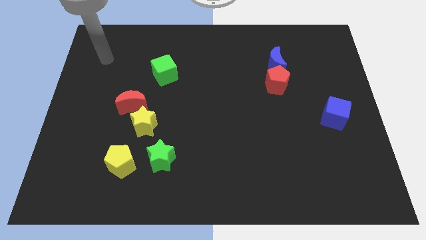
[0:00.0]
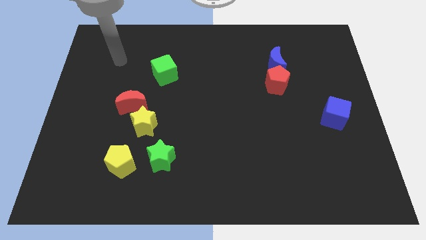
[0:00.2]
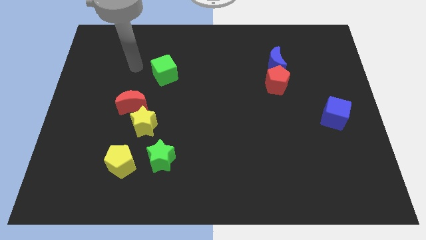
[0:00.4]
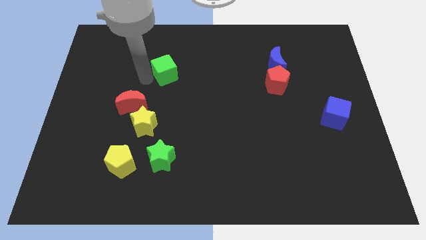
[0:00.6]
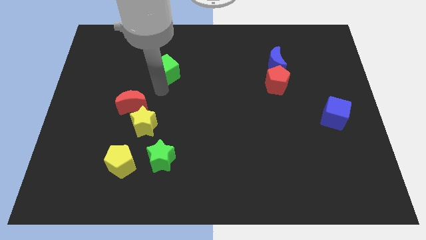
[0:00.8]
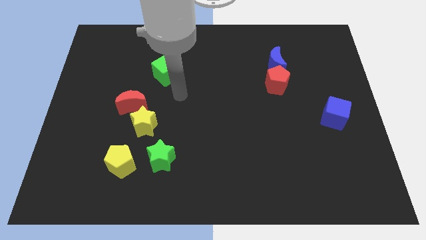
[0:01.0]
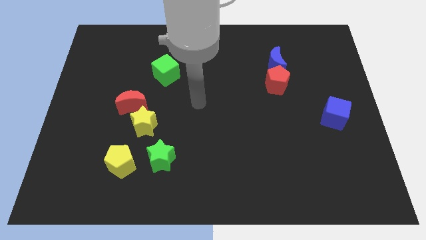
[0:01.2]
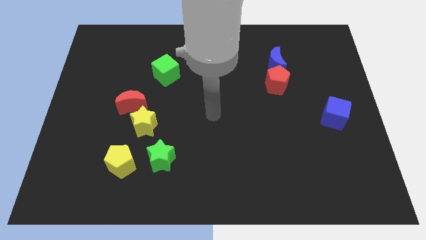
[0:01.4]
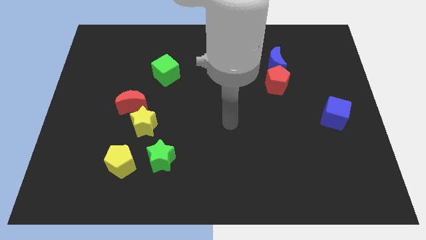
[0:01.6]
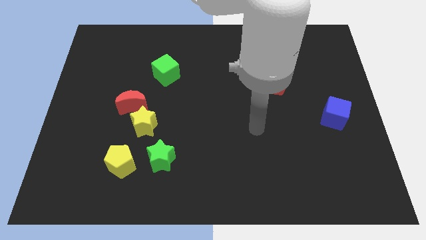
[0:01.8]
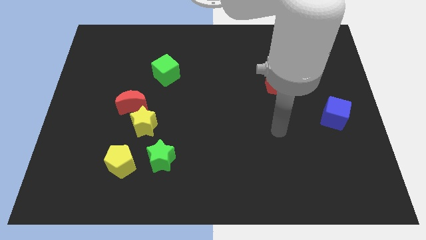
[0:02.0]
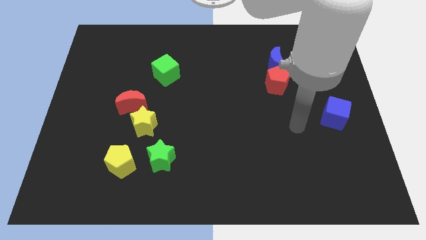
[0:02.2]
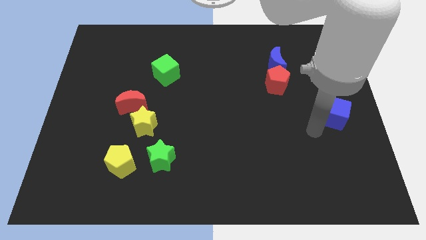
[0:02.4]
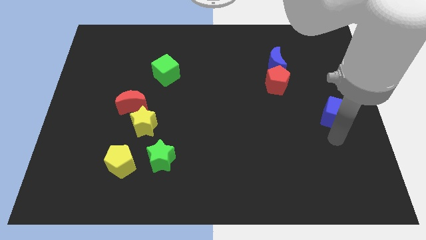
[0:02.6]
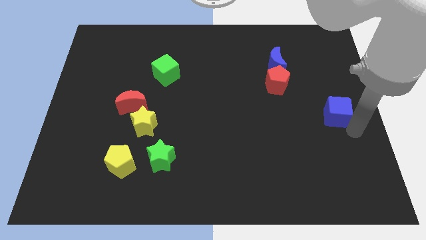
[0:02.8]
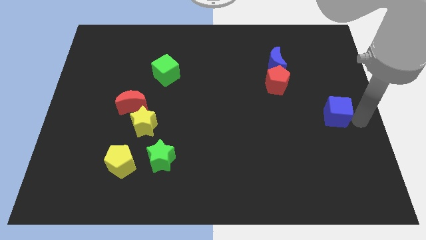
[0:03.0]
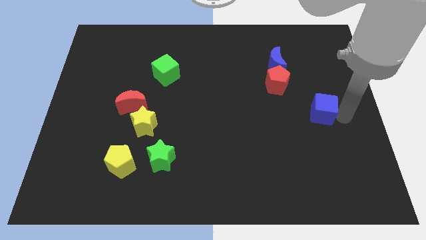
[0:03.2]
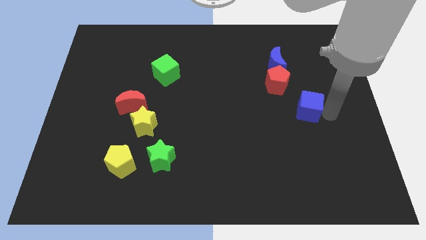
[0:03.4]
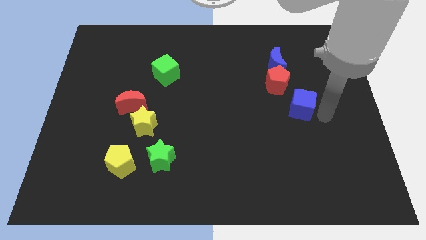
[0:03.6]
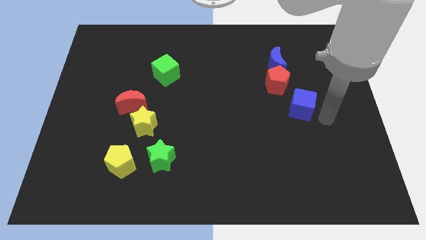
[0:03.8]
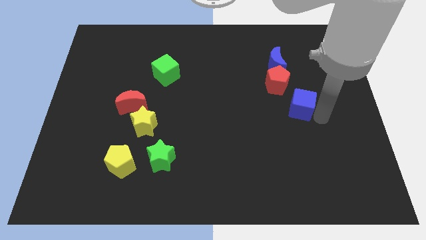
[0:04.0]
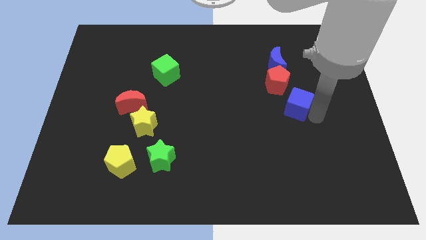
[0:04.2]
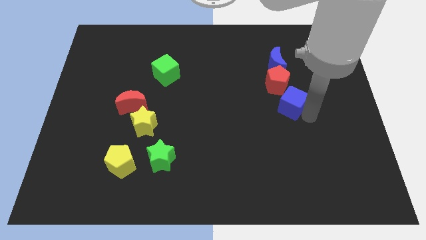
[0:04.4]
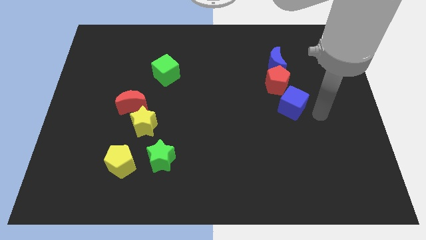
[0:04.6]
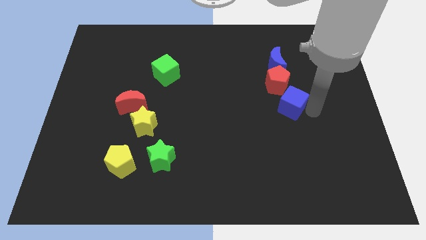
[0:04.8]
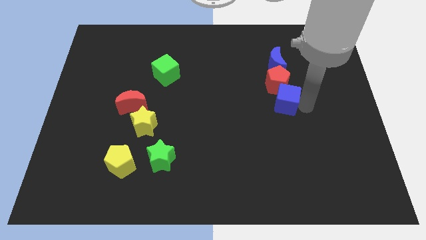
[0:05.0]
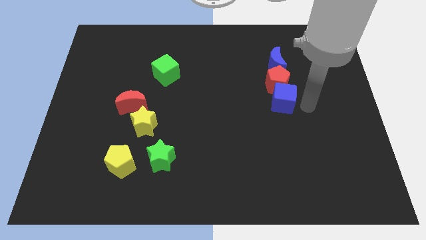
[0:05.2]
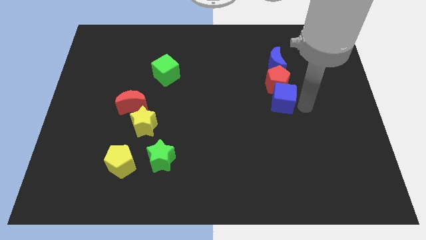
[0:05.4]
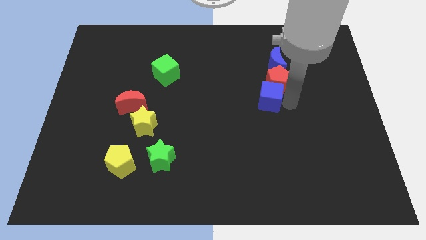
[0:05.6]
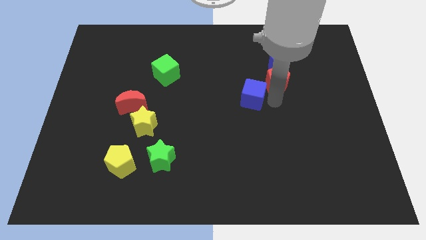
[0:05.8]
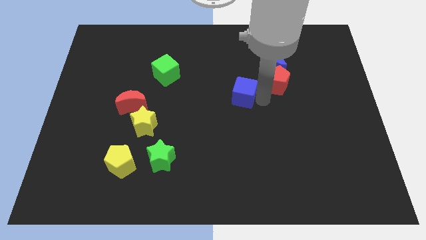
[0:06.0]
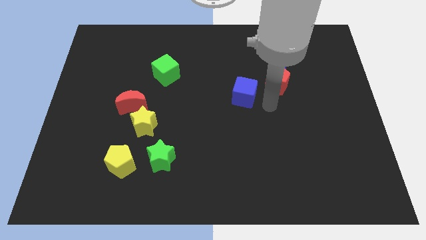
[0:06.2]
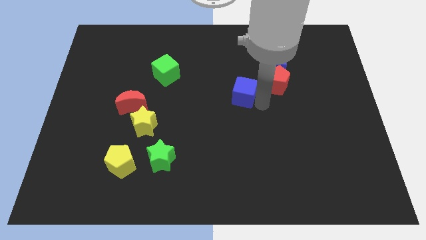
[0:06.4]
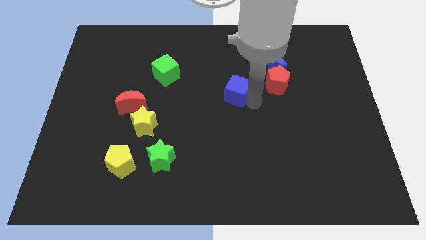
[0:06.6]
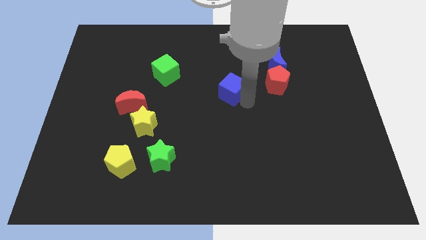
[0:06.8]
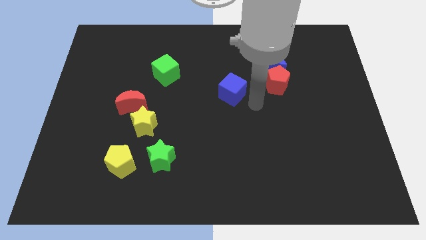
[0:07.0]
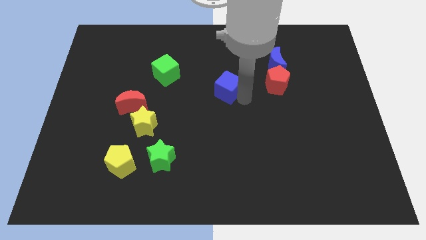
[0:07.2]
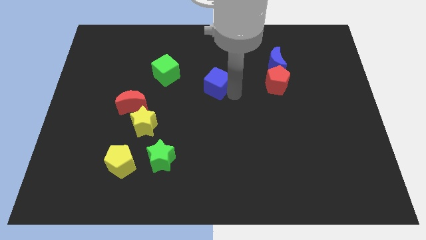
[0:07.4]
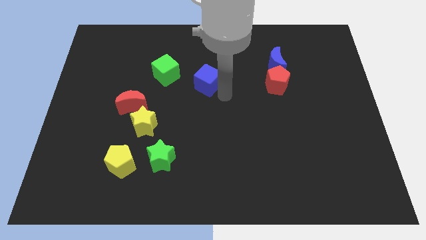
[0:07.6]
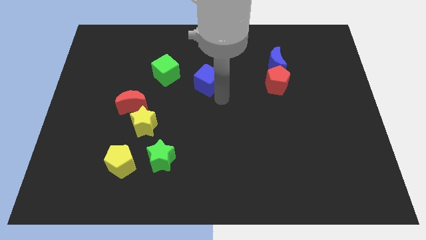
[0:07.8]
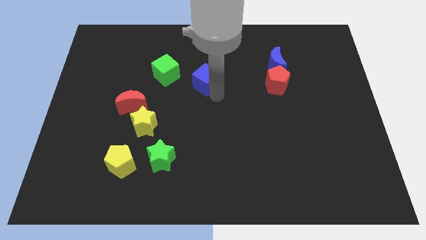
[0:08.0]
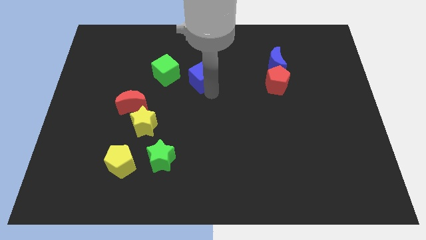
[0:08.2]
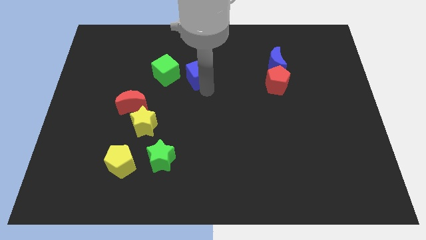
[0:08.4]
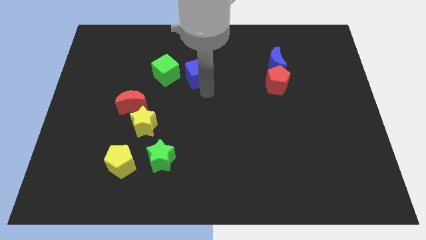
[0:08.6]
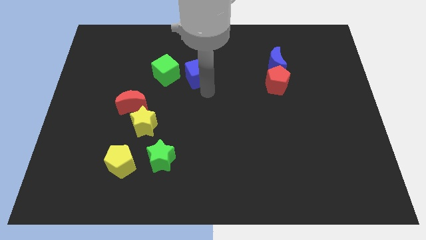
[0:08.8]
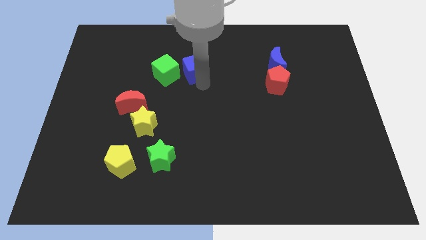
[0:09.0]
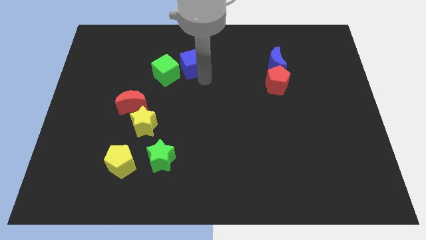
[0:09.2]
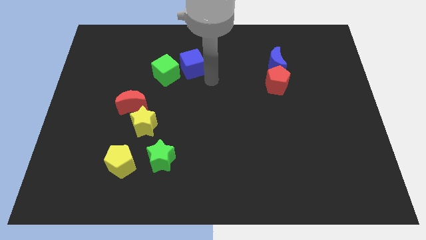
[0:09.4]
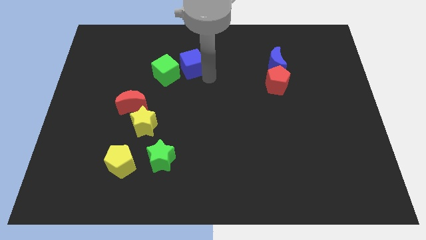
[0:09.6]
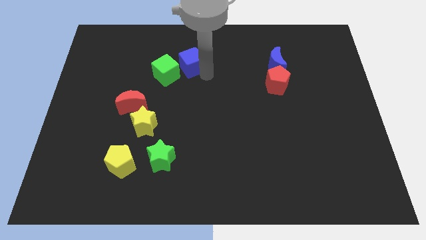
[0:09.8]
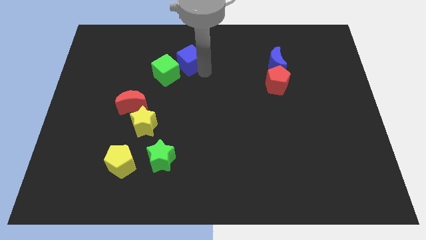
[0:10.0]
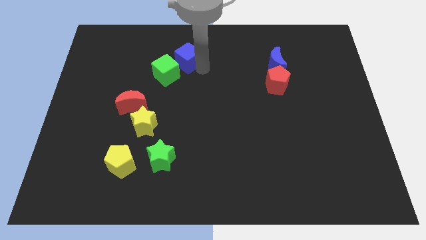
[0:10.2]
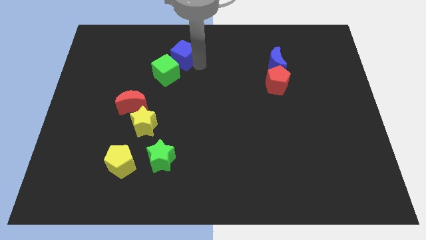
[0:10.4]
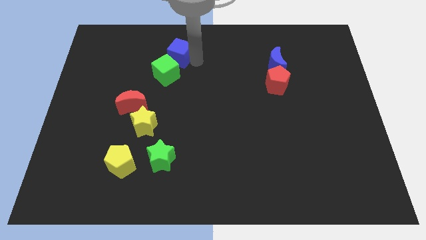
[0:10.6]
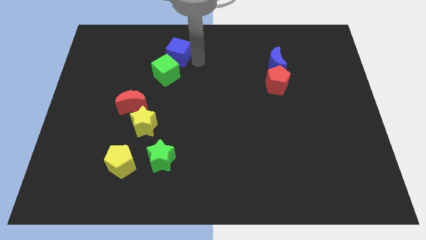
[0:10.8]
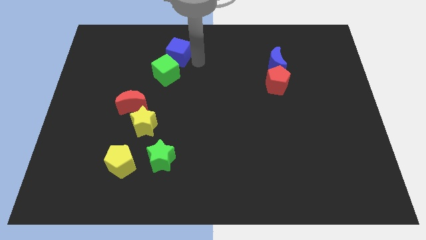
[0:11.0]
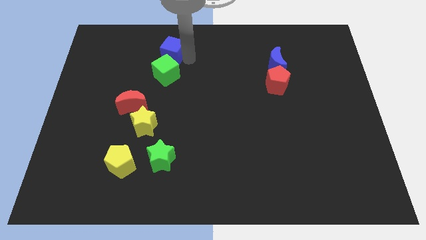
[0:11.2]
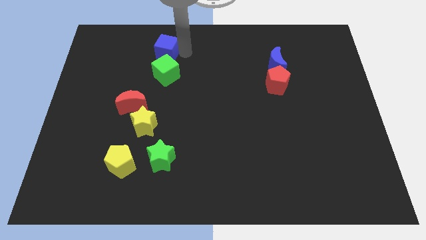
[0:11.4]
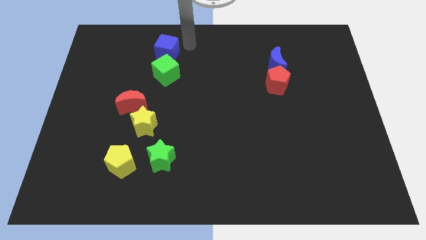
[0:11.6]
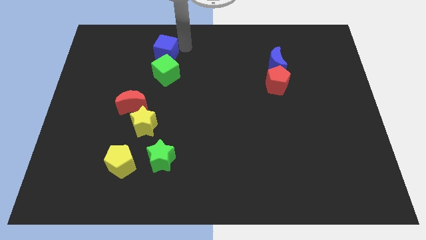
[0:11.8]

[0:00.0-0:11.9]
push the blue cube to the top left side of the green cube

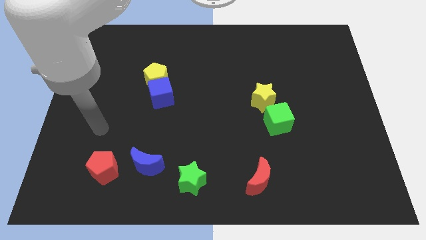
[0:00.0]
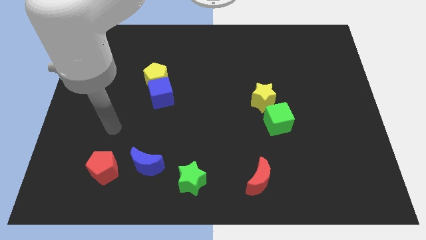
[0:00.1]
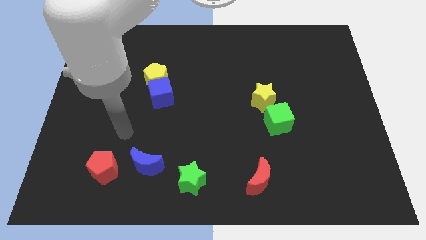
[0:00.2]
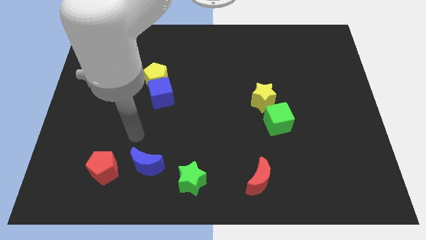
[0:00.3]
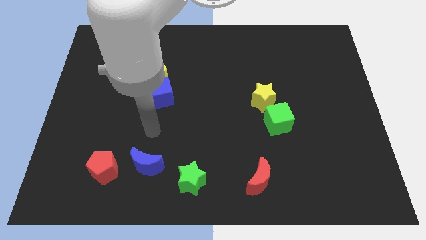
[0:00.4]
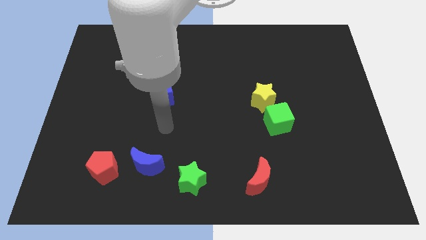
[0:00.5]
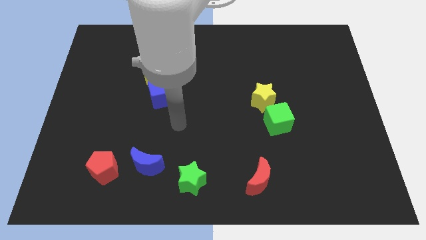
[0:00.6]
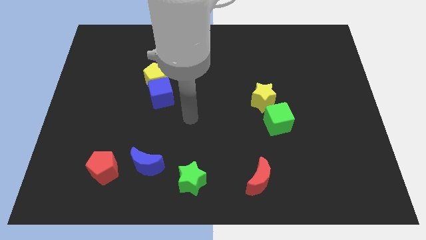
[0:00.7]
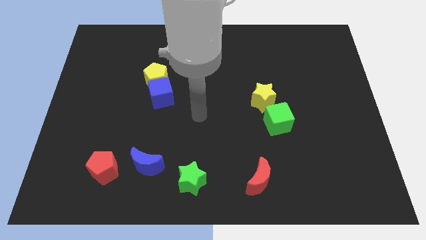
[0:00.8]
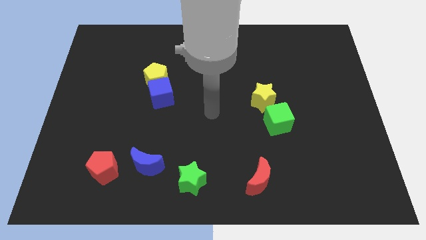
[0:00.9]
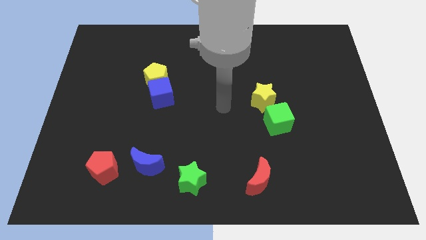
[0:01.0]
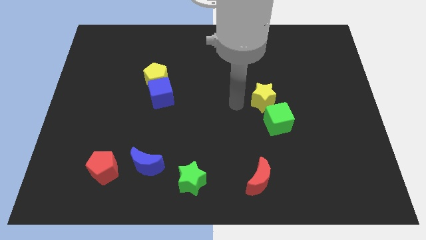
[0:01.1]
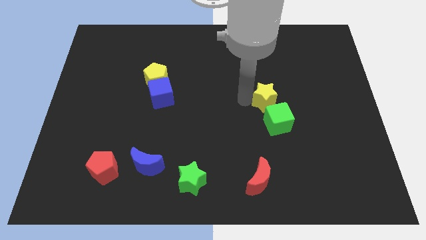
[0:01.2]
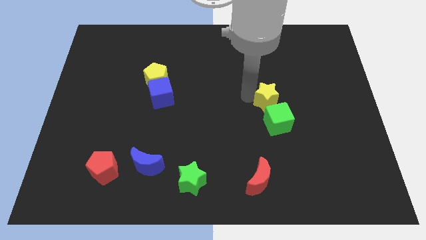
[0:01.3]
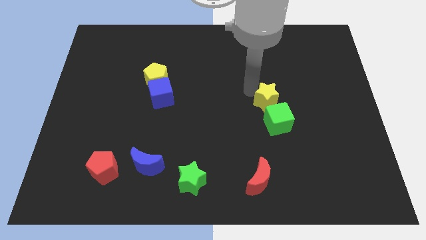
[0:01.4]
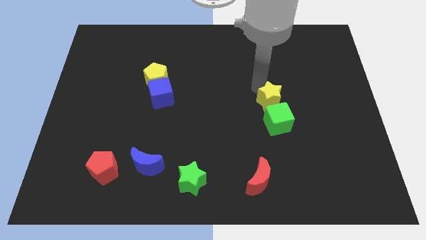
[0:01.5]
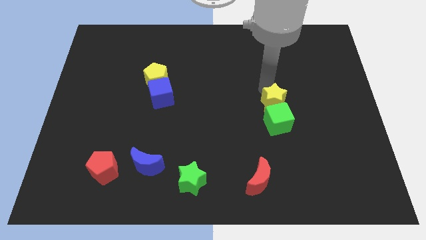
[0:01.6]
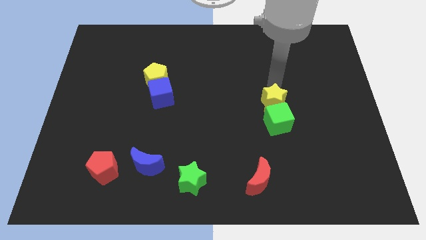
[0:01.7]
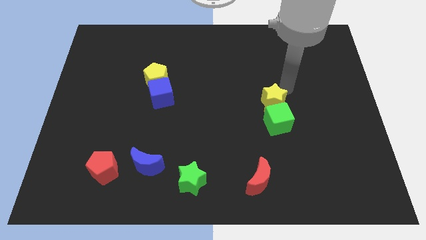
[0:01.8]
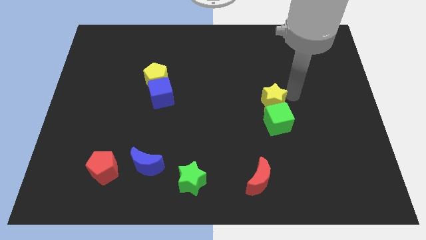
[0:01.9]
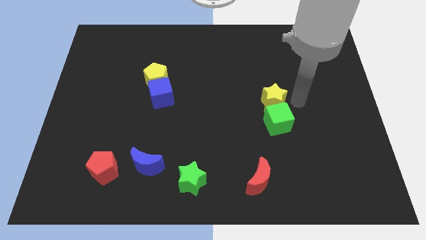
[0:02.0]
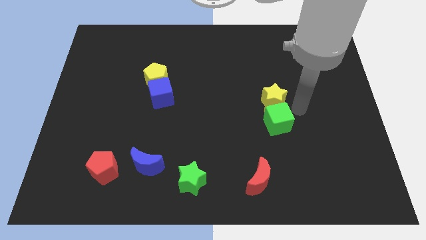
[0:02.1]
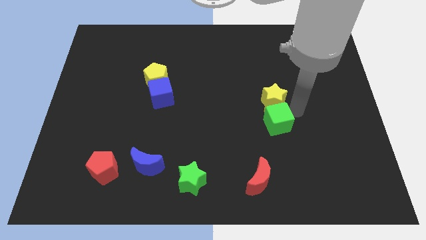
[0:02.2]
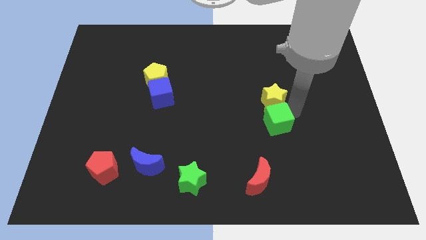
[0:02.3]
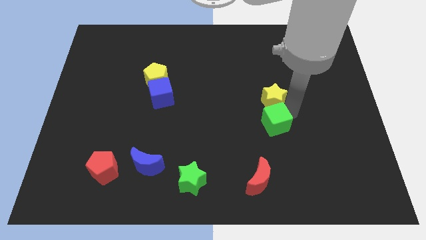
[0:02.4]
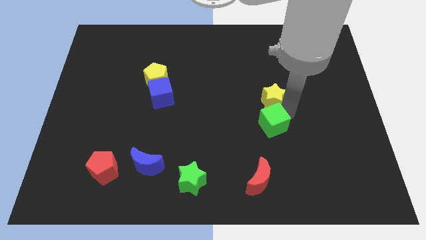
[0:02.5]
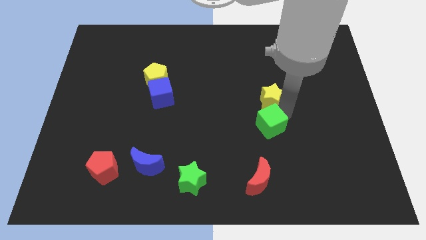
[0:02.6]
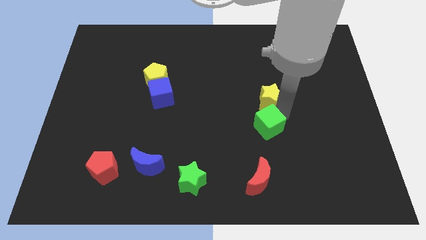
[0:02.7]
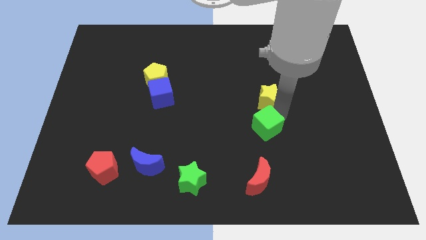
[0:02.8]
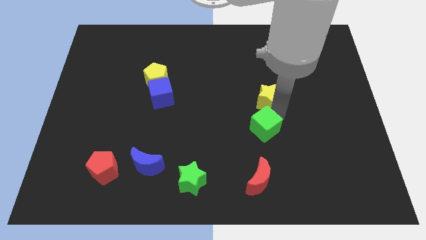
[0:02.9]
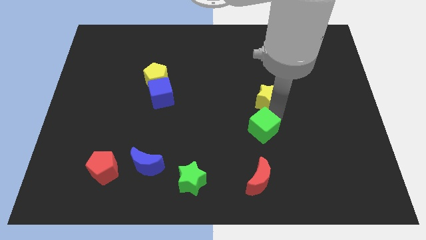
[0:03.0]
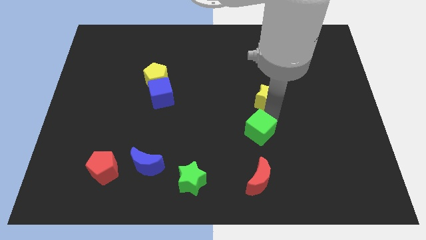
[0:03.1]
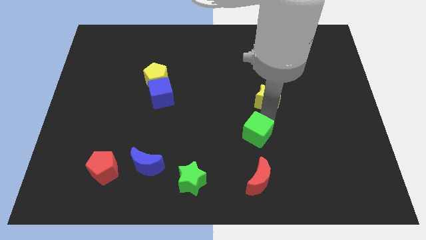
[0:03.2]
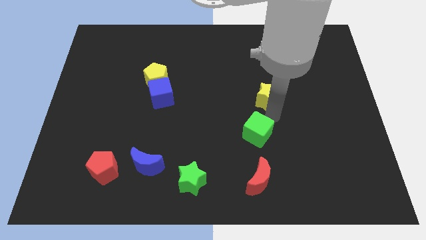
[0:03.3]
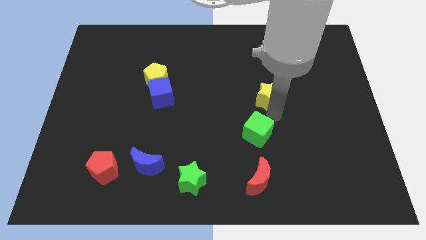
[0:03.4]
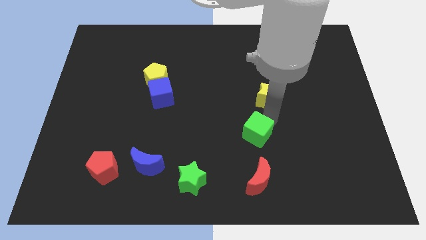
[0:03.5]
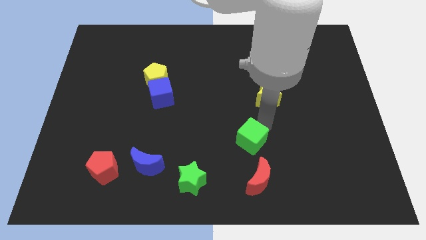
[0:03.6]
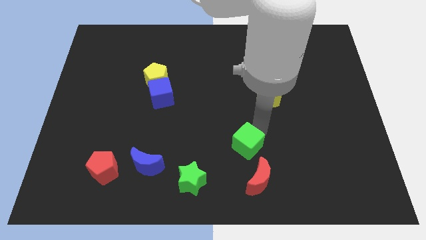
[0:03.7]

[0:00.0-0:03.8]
slide the green cube to the top left of the red moon
